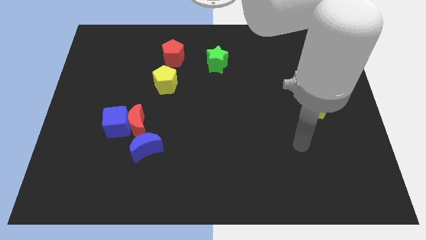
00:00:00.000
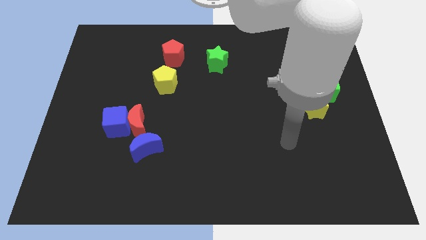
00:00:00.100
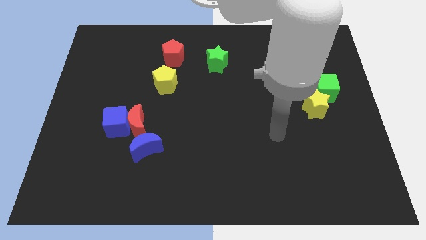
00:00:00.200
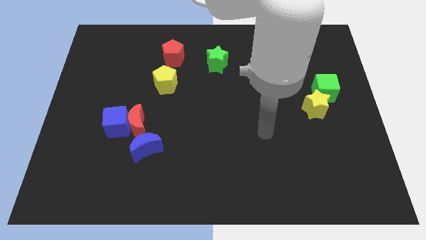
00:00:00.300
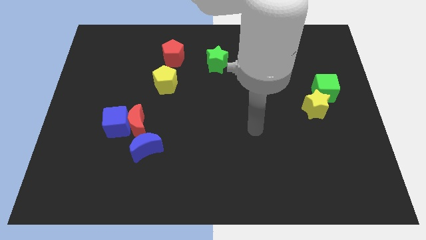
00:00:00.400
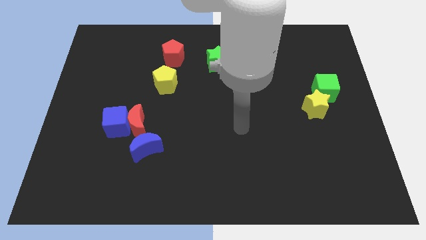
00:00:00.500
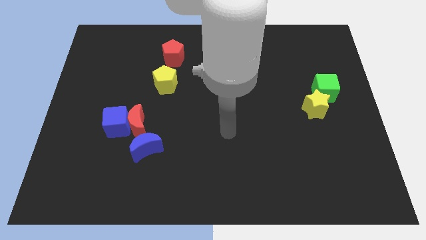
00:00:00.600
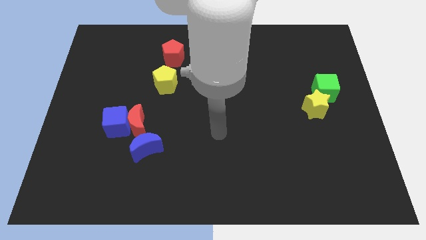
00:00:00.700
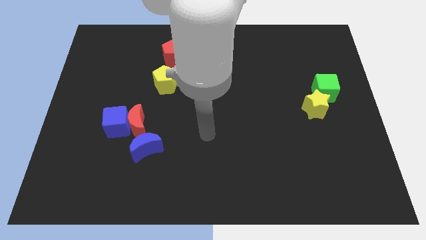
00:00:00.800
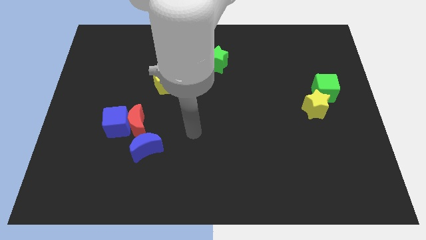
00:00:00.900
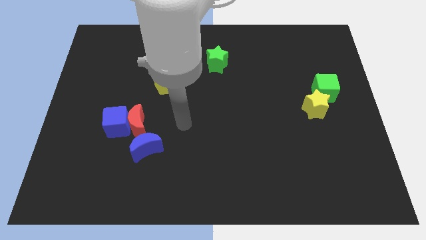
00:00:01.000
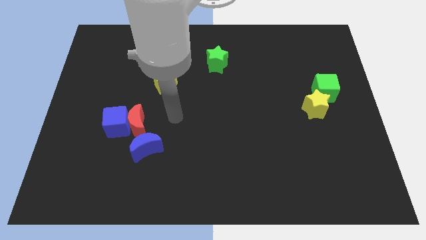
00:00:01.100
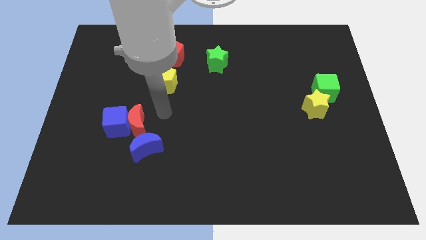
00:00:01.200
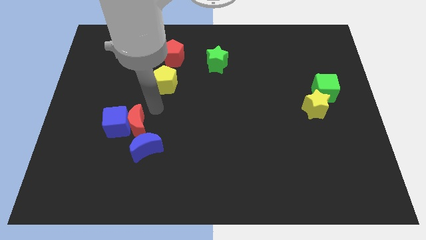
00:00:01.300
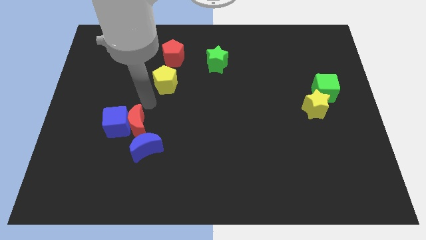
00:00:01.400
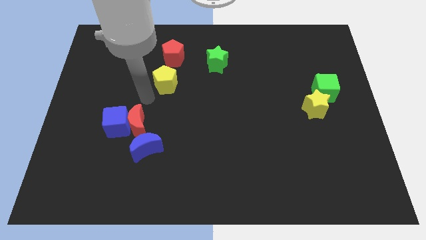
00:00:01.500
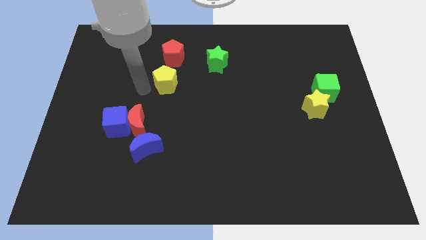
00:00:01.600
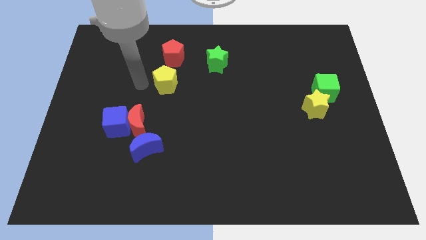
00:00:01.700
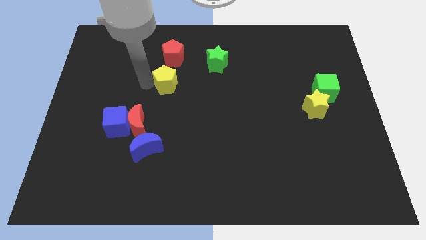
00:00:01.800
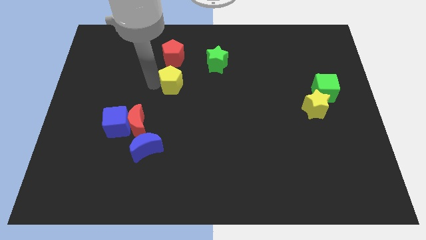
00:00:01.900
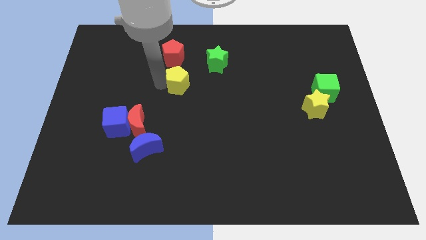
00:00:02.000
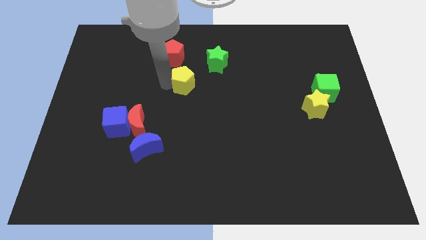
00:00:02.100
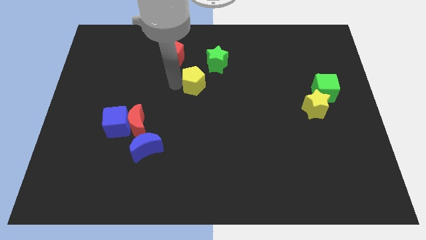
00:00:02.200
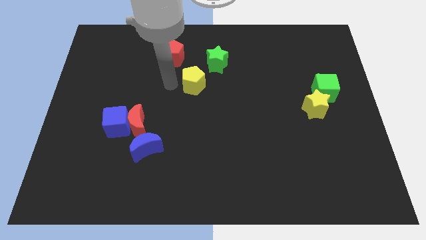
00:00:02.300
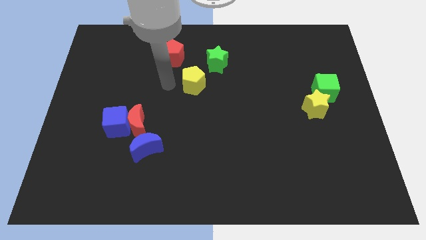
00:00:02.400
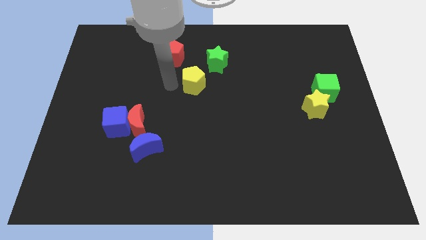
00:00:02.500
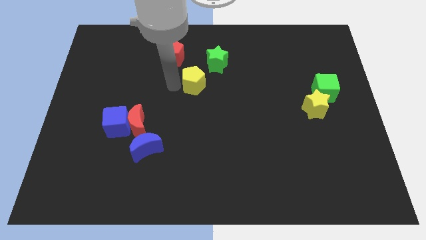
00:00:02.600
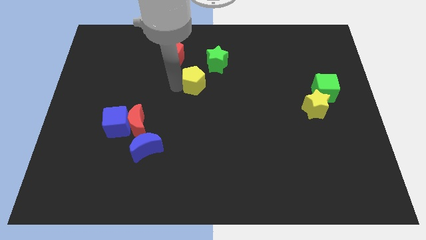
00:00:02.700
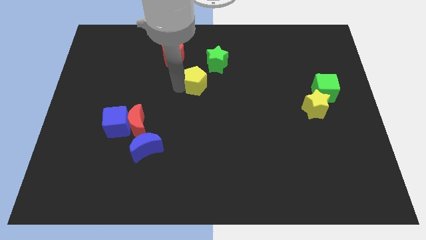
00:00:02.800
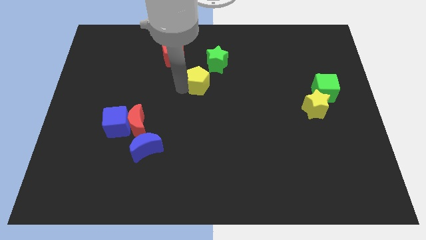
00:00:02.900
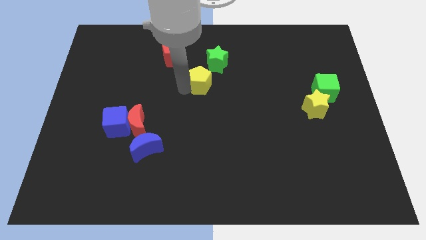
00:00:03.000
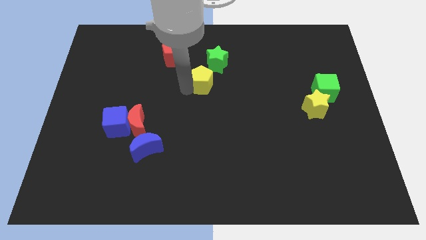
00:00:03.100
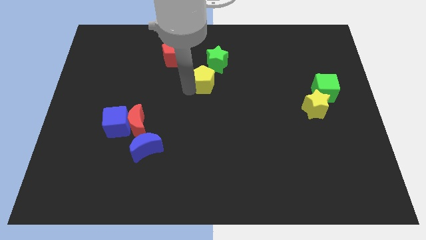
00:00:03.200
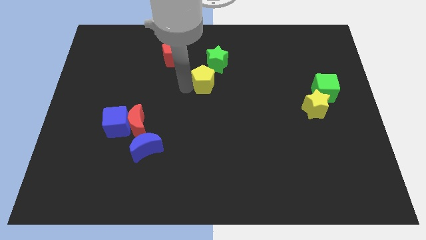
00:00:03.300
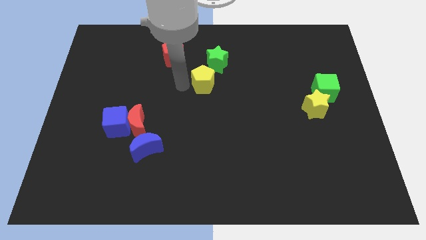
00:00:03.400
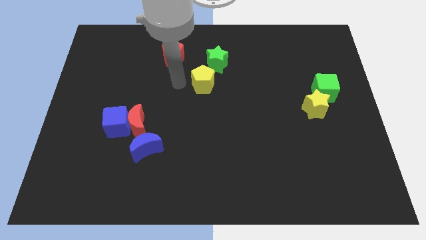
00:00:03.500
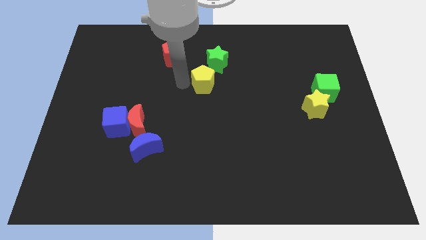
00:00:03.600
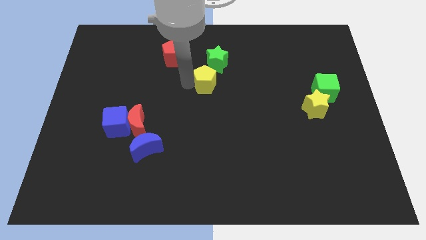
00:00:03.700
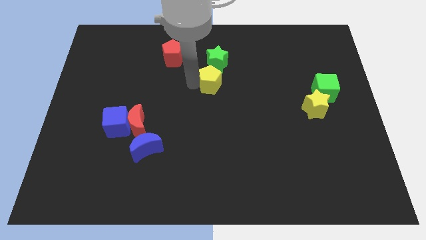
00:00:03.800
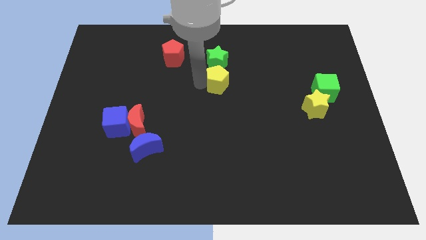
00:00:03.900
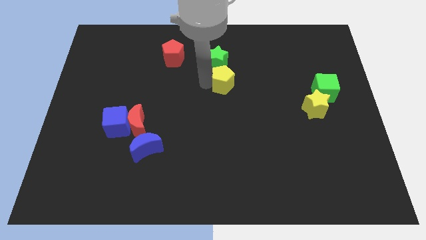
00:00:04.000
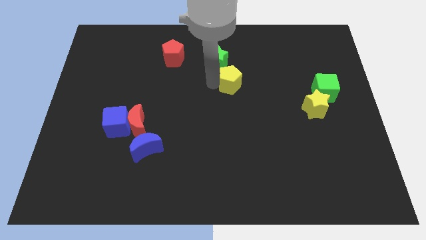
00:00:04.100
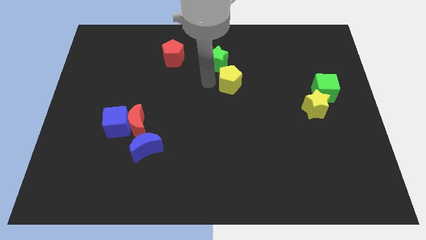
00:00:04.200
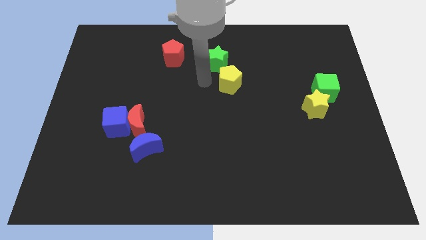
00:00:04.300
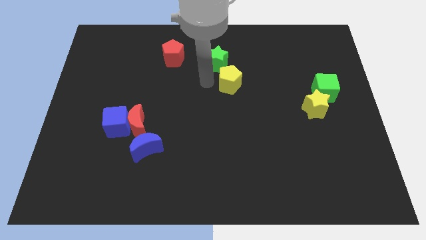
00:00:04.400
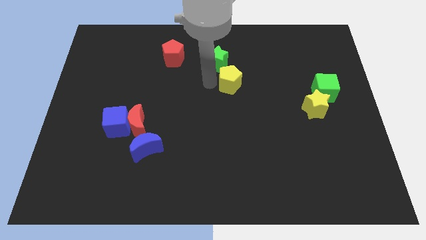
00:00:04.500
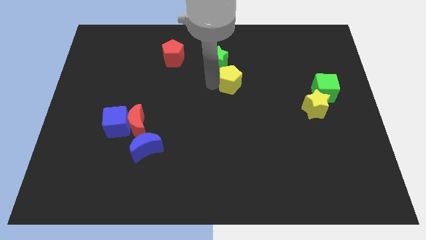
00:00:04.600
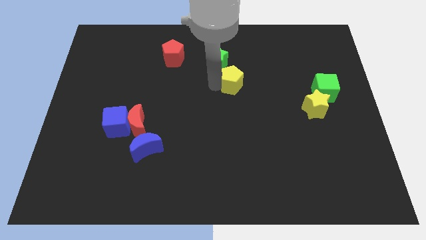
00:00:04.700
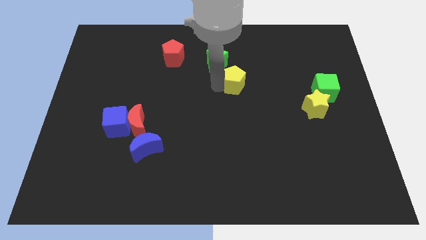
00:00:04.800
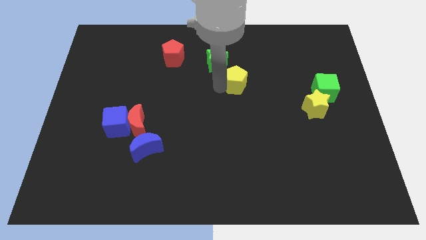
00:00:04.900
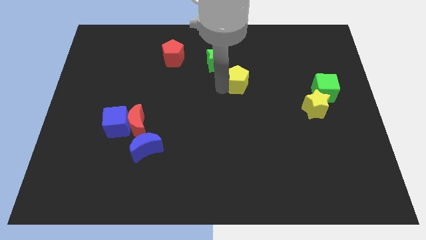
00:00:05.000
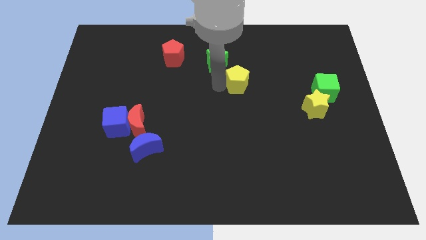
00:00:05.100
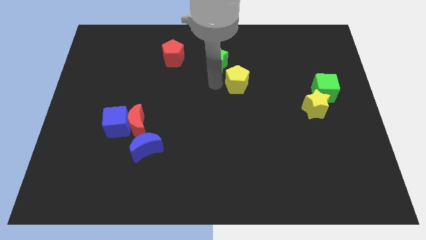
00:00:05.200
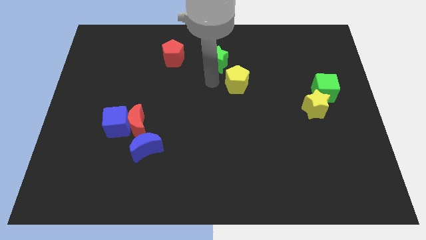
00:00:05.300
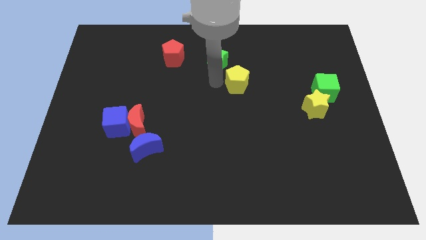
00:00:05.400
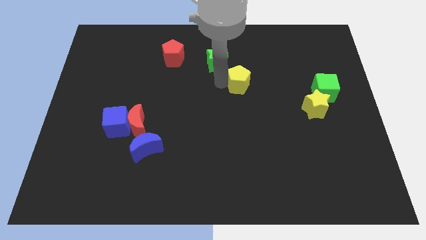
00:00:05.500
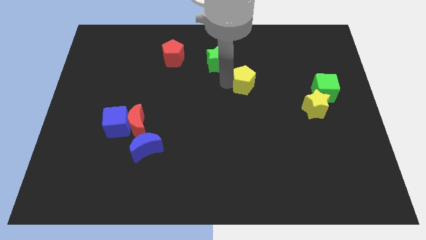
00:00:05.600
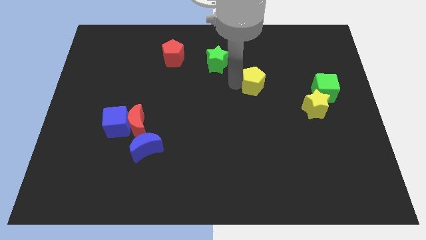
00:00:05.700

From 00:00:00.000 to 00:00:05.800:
push the yellow pentagon to the right

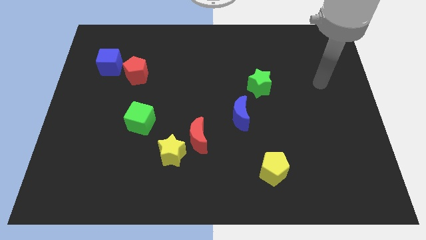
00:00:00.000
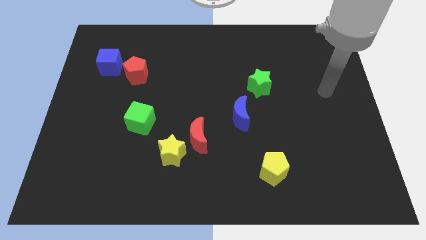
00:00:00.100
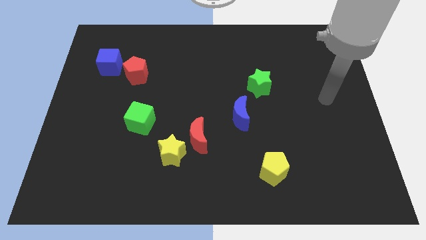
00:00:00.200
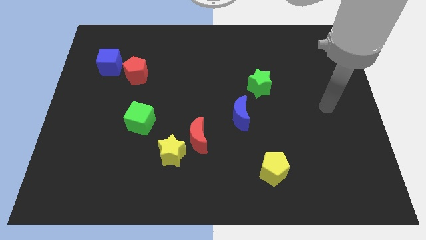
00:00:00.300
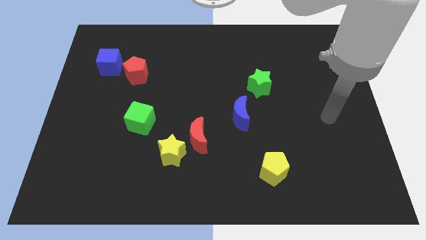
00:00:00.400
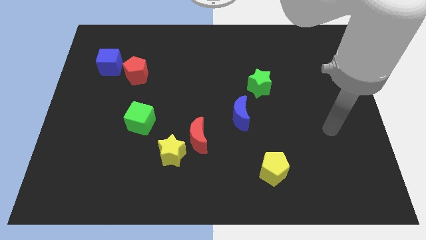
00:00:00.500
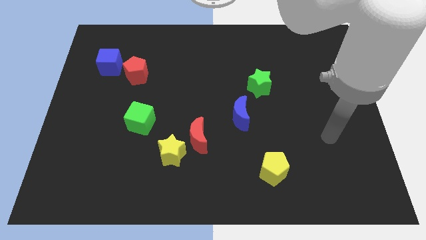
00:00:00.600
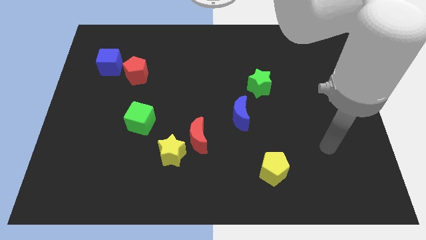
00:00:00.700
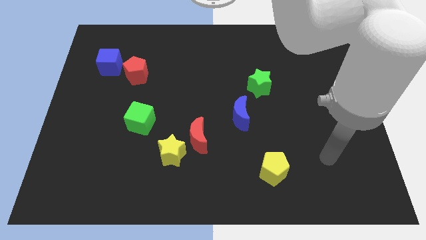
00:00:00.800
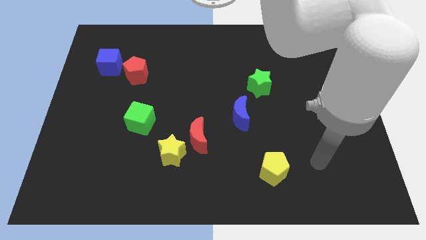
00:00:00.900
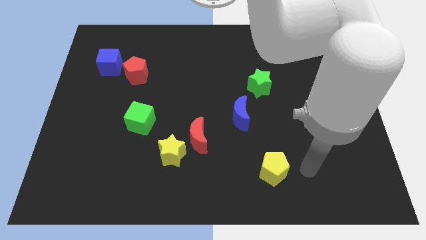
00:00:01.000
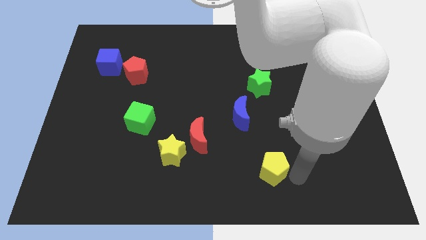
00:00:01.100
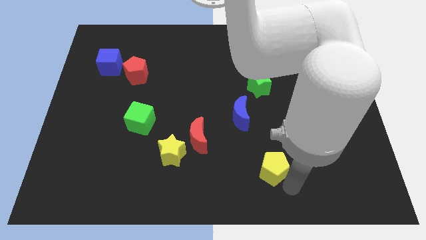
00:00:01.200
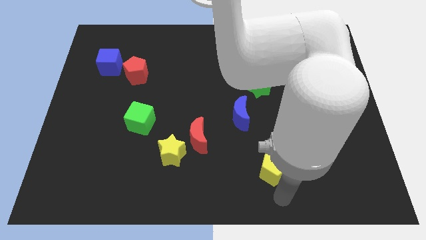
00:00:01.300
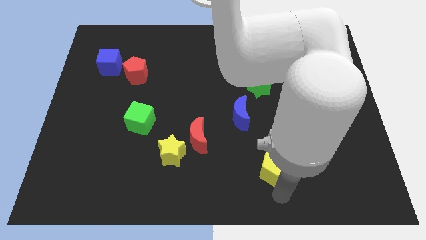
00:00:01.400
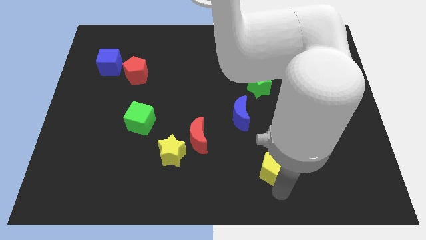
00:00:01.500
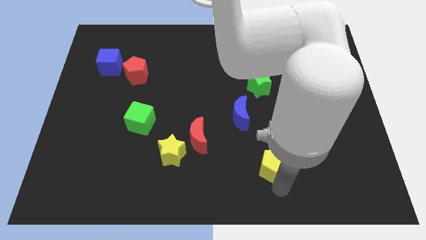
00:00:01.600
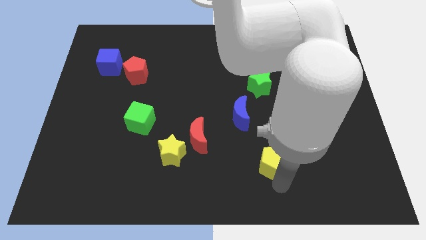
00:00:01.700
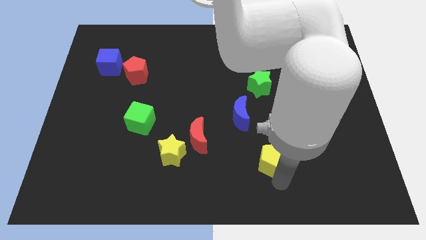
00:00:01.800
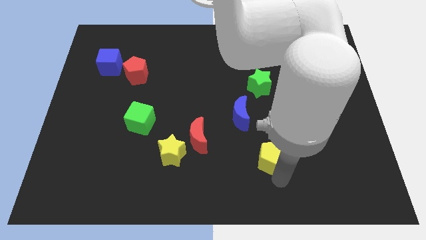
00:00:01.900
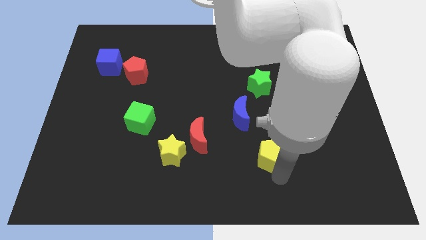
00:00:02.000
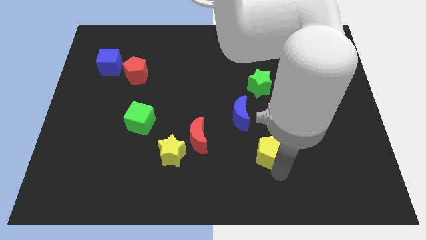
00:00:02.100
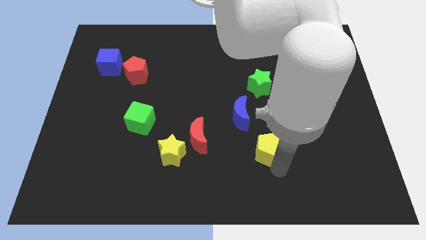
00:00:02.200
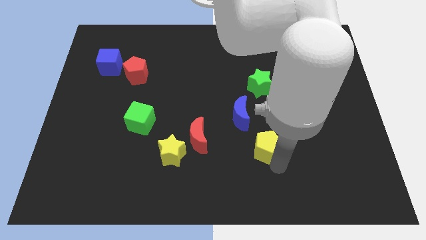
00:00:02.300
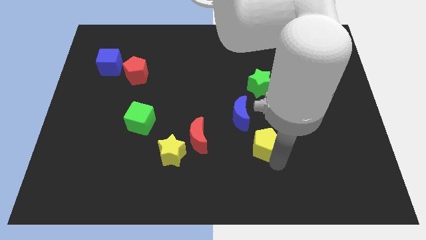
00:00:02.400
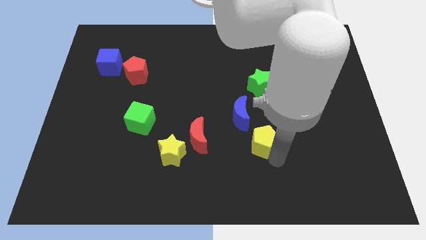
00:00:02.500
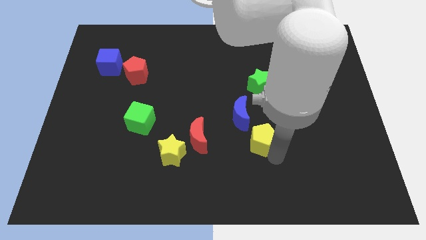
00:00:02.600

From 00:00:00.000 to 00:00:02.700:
push the yellow pentagon a little bit up
